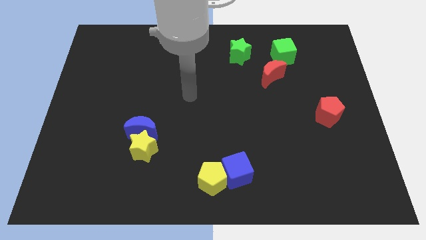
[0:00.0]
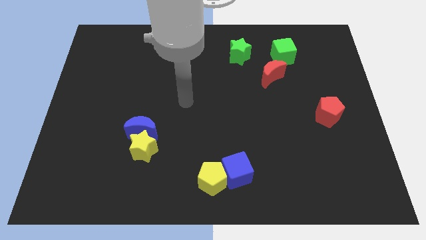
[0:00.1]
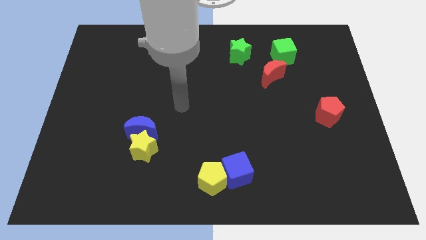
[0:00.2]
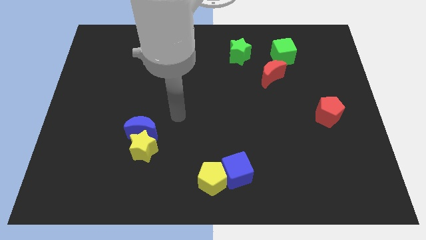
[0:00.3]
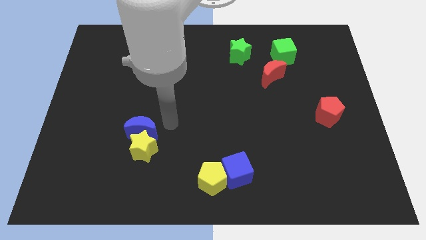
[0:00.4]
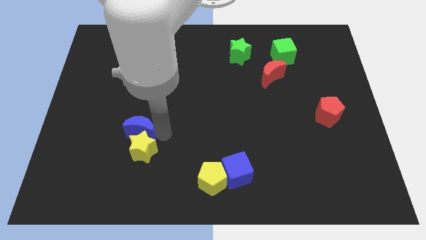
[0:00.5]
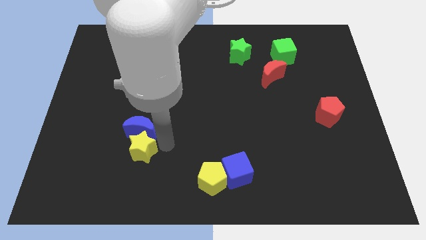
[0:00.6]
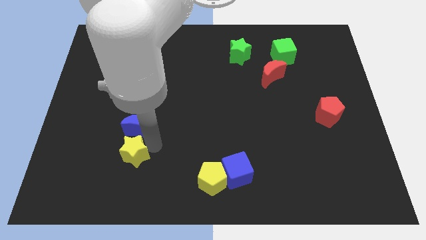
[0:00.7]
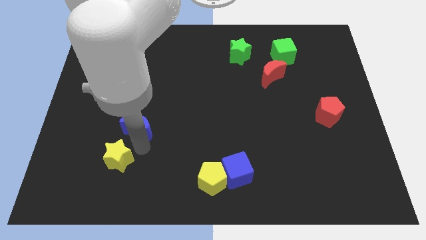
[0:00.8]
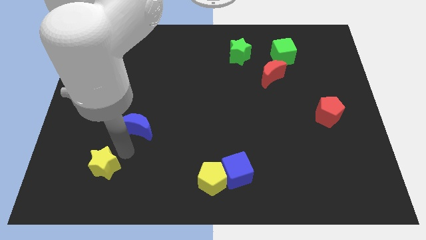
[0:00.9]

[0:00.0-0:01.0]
pull the blue moon apart from the yellow star

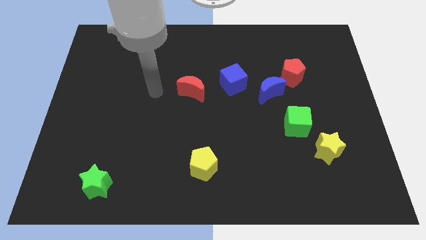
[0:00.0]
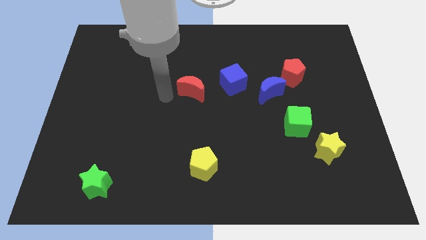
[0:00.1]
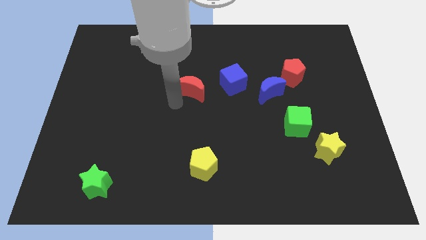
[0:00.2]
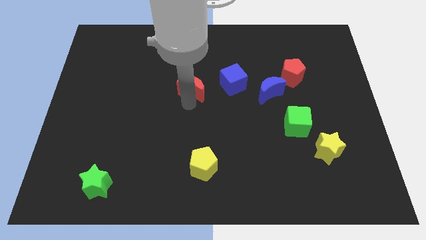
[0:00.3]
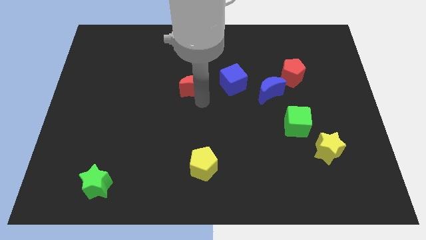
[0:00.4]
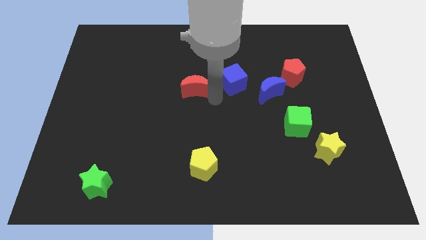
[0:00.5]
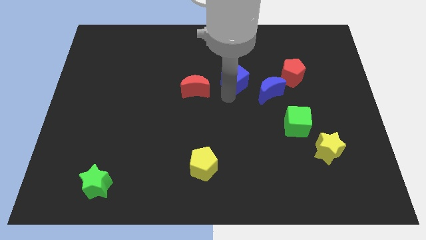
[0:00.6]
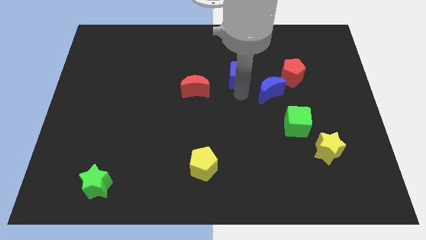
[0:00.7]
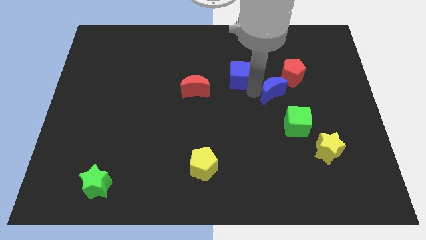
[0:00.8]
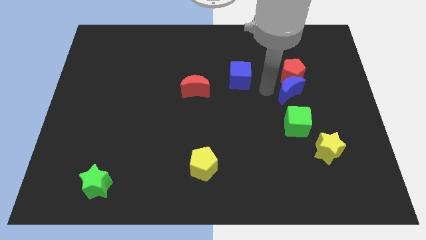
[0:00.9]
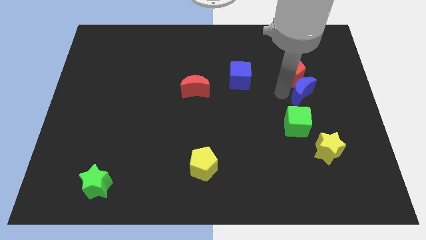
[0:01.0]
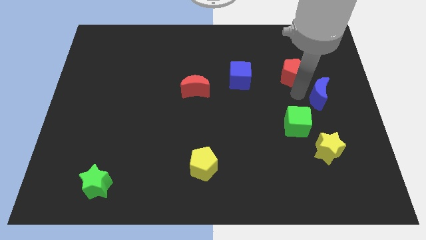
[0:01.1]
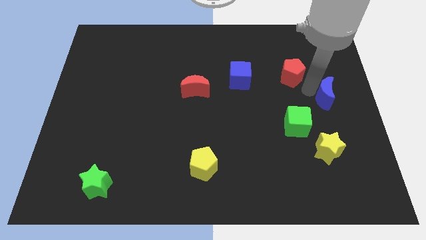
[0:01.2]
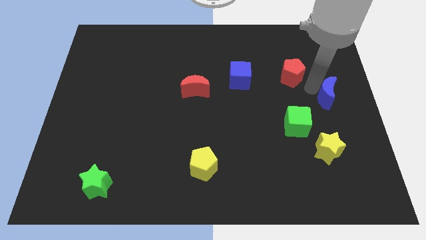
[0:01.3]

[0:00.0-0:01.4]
pull the red pentagon apart from the blue moon

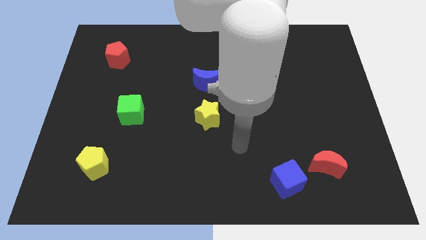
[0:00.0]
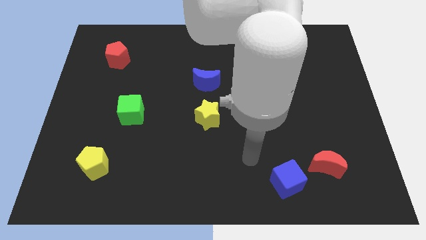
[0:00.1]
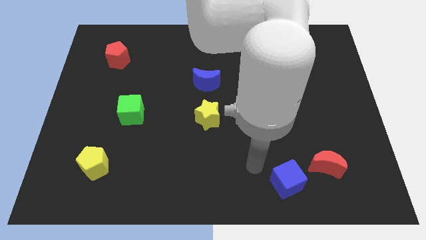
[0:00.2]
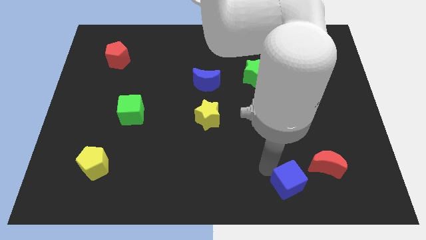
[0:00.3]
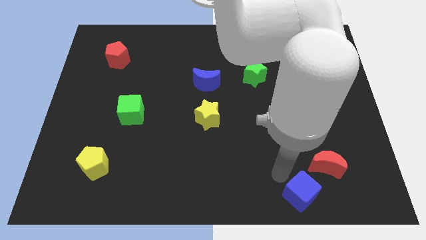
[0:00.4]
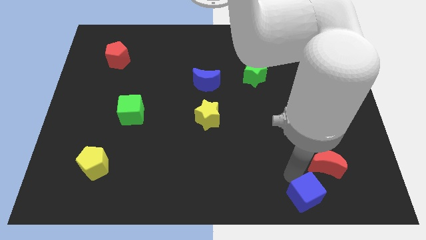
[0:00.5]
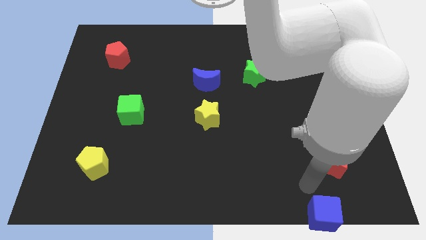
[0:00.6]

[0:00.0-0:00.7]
pull the red moon apart from the blue cube

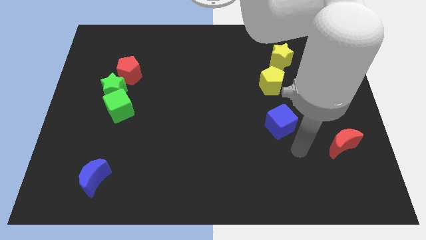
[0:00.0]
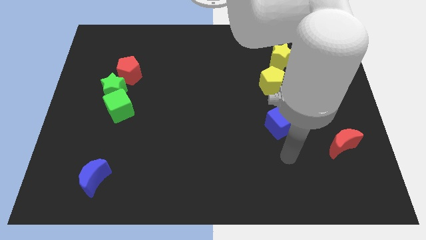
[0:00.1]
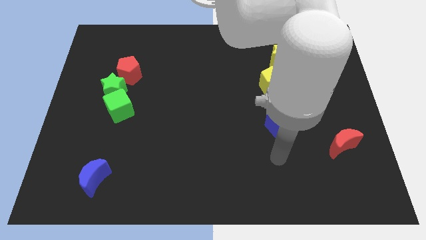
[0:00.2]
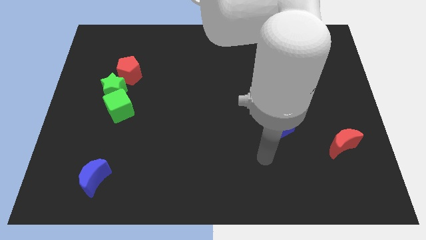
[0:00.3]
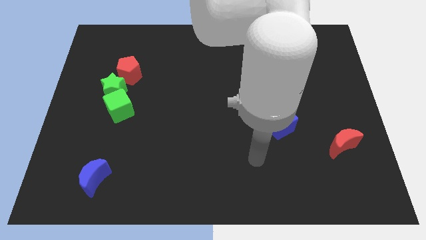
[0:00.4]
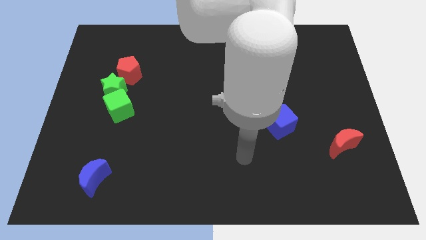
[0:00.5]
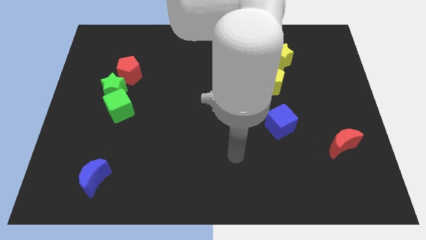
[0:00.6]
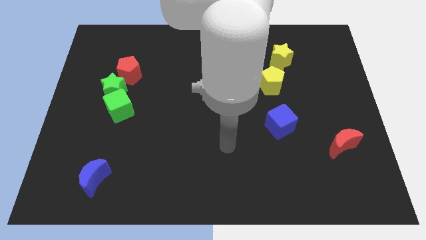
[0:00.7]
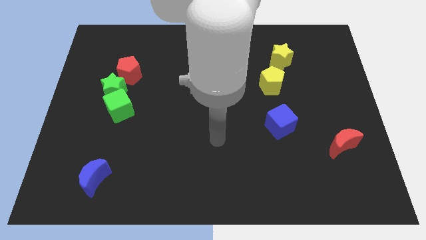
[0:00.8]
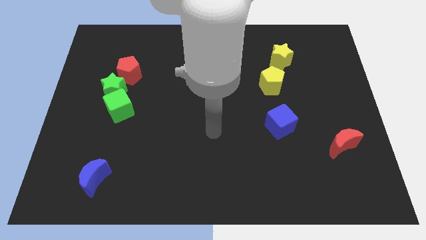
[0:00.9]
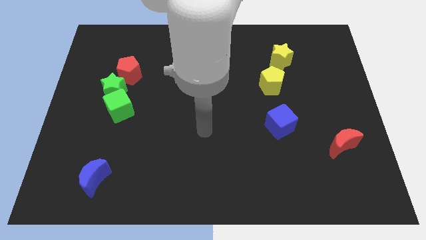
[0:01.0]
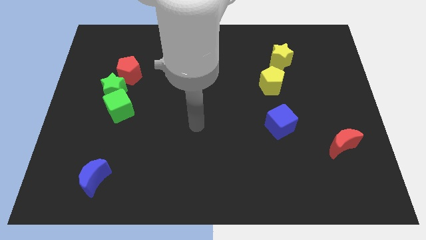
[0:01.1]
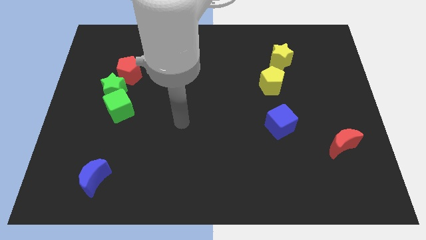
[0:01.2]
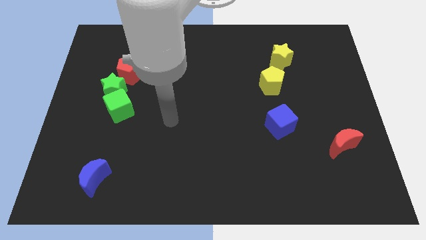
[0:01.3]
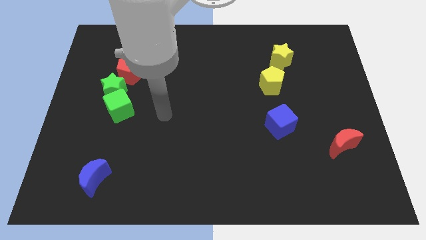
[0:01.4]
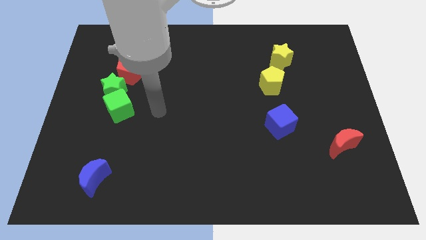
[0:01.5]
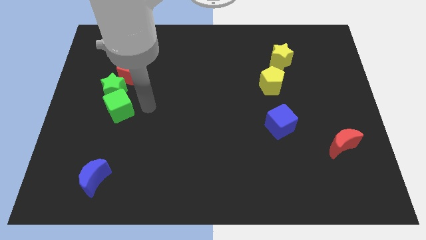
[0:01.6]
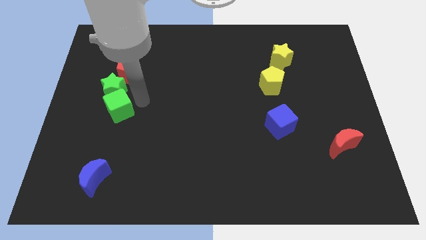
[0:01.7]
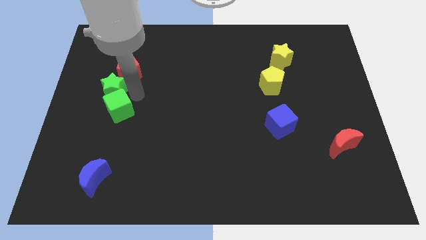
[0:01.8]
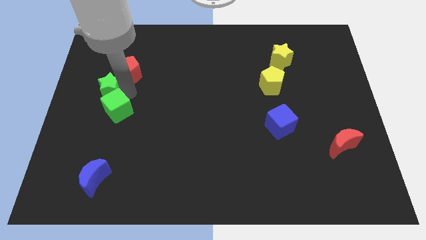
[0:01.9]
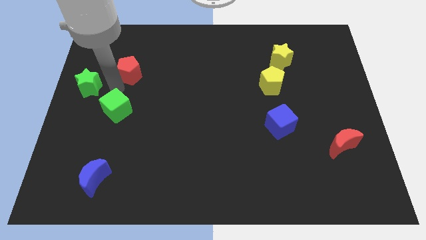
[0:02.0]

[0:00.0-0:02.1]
move the green cube away from the green star

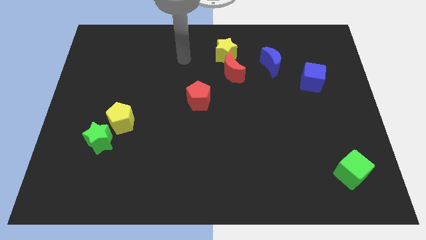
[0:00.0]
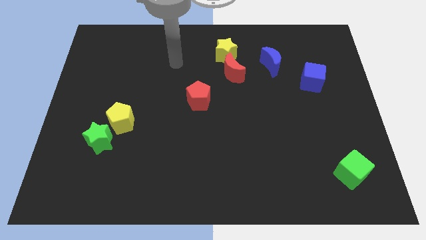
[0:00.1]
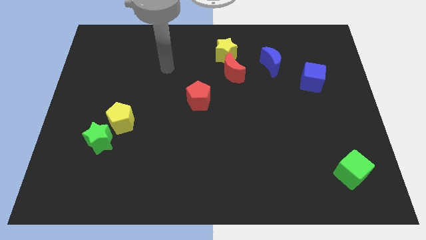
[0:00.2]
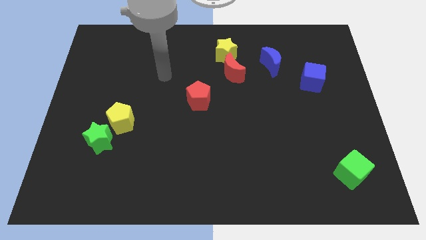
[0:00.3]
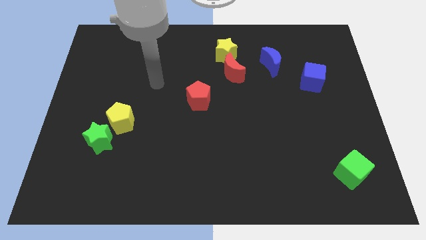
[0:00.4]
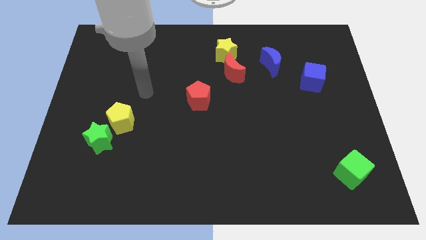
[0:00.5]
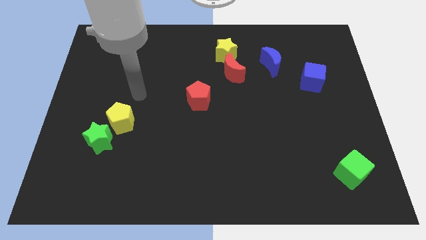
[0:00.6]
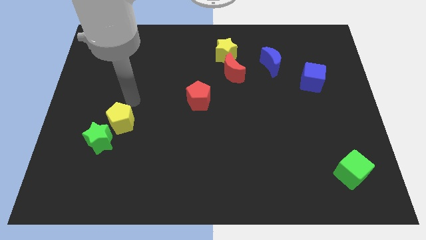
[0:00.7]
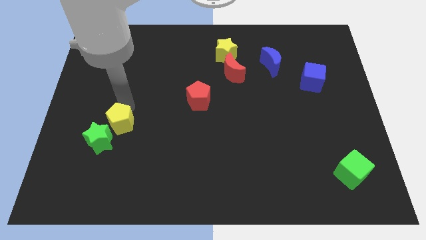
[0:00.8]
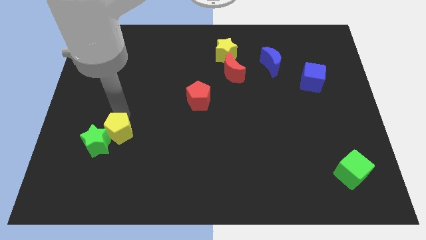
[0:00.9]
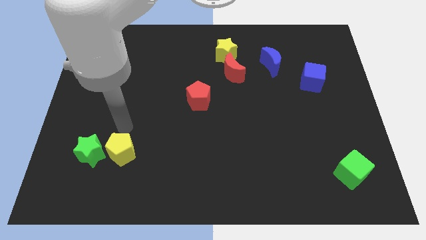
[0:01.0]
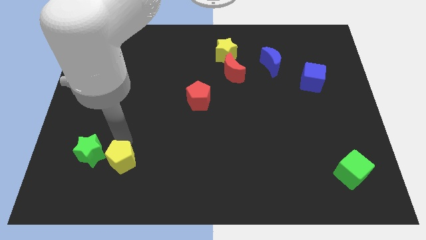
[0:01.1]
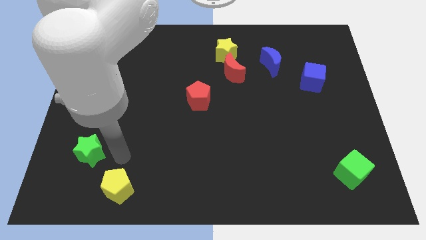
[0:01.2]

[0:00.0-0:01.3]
pull the green star apart from the yellow pentagon

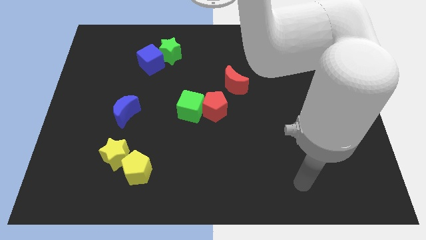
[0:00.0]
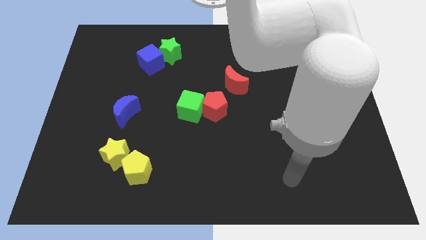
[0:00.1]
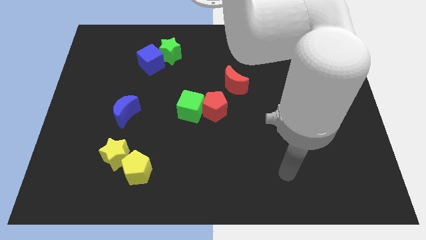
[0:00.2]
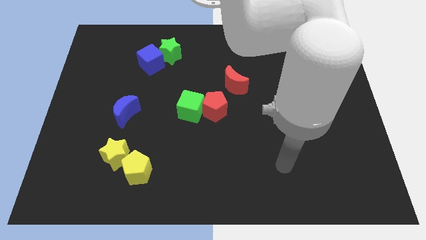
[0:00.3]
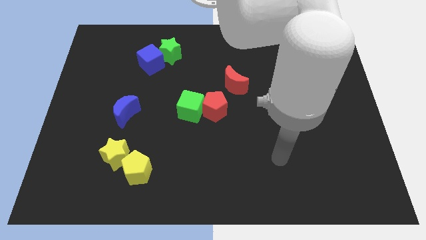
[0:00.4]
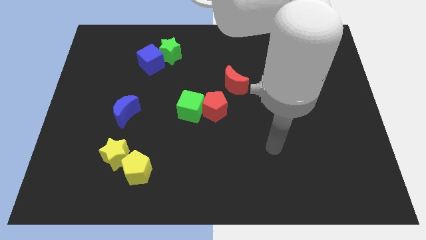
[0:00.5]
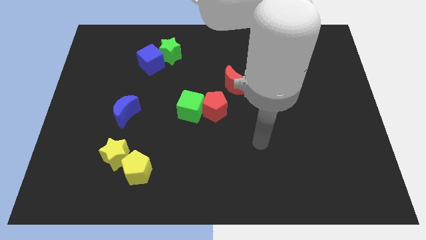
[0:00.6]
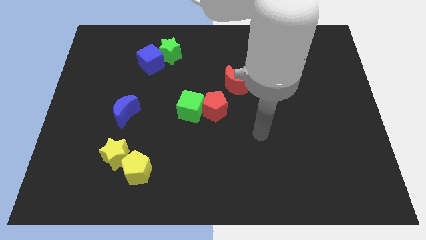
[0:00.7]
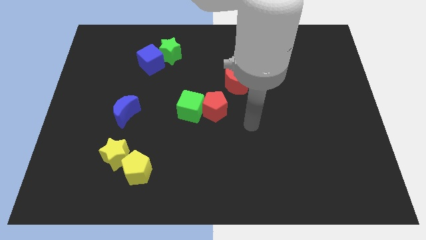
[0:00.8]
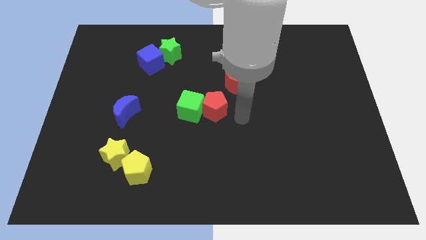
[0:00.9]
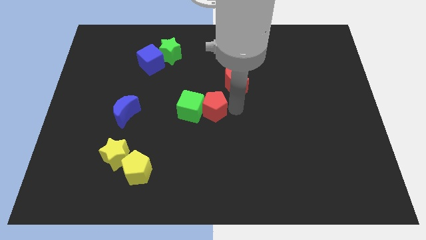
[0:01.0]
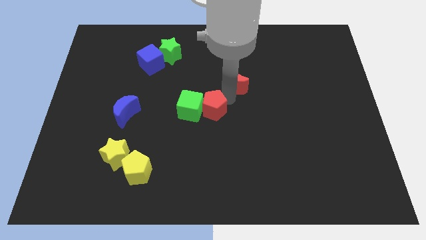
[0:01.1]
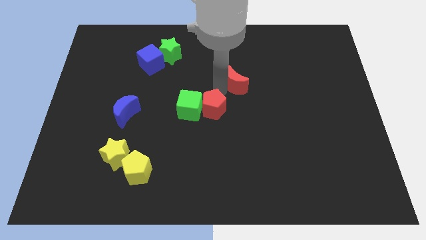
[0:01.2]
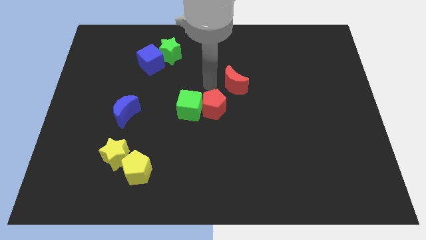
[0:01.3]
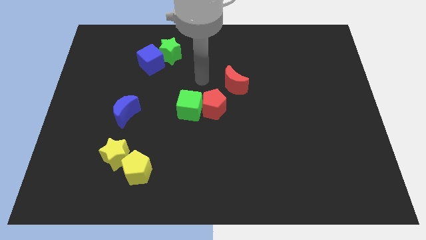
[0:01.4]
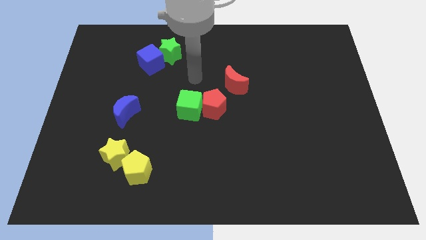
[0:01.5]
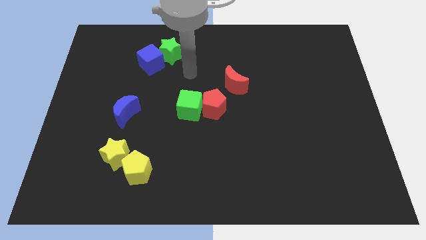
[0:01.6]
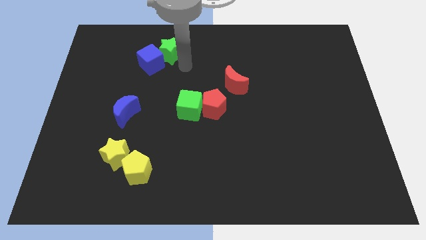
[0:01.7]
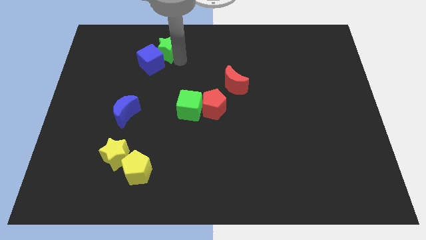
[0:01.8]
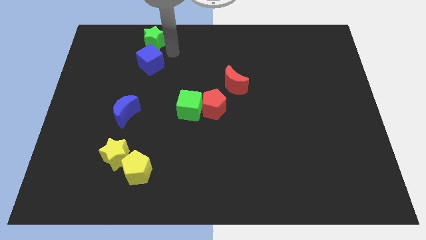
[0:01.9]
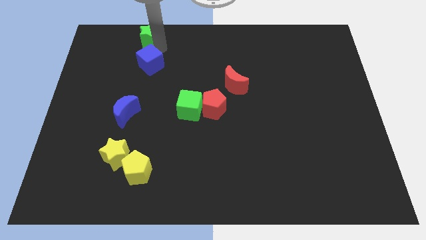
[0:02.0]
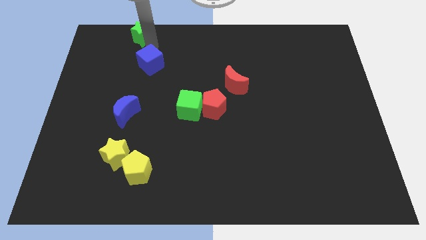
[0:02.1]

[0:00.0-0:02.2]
pull the blue cube apart from the green star

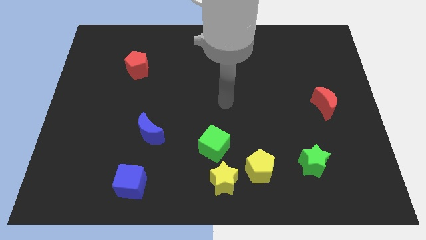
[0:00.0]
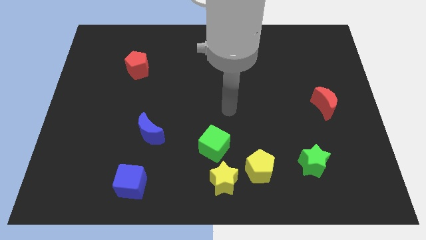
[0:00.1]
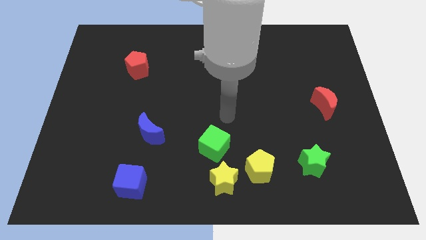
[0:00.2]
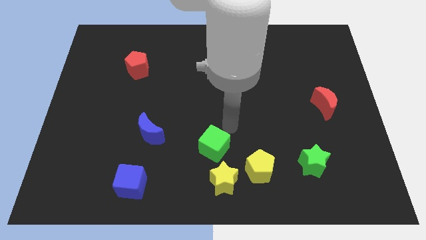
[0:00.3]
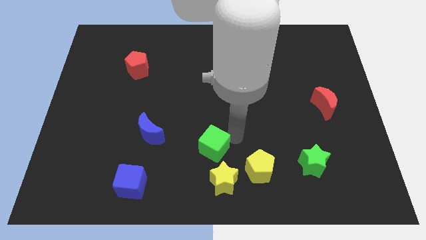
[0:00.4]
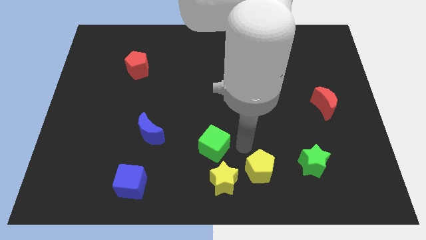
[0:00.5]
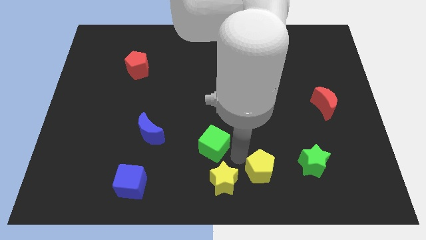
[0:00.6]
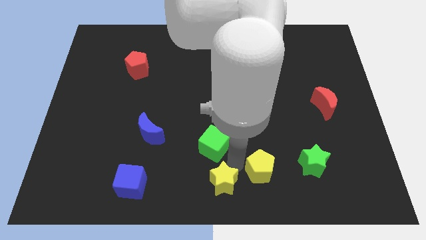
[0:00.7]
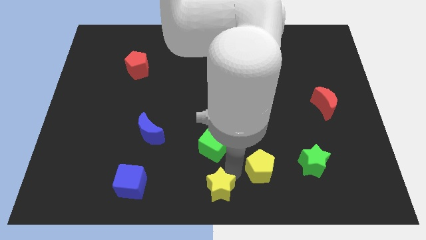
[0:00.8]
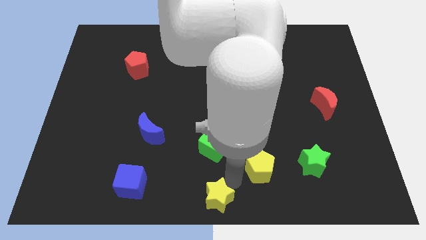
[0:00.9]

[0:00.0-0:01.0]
pull the yellow pentagon apart from the yellow star
